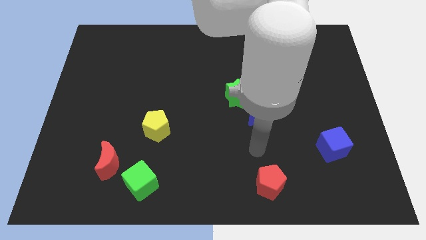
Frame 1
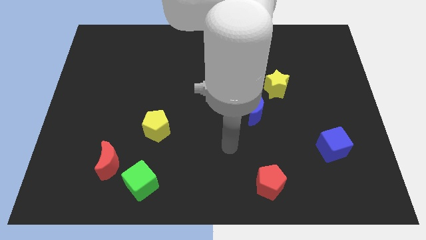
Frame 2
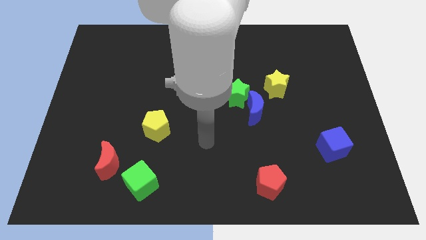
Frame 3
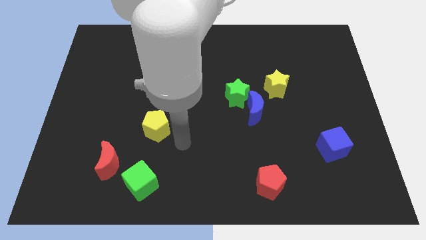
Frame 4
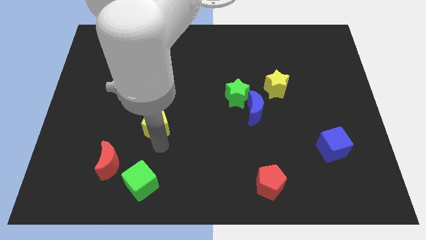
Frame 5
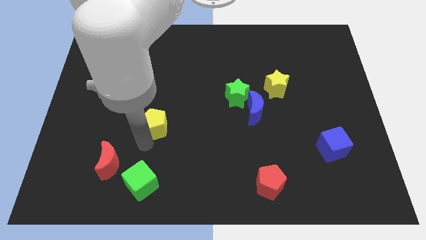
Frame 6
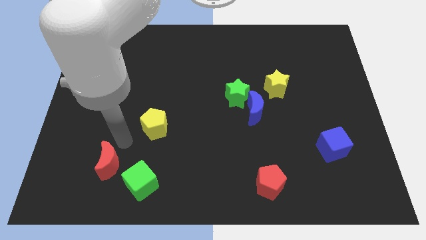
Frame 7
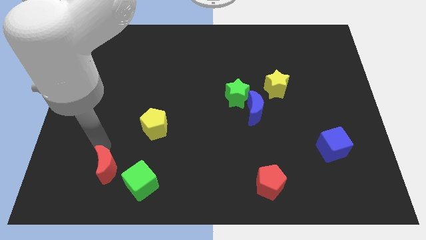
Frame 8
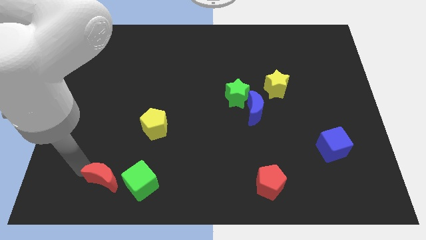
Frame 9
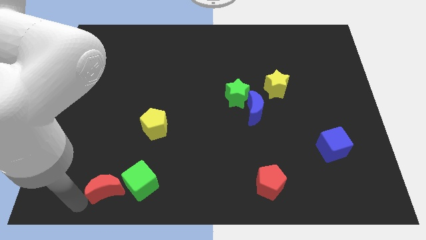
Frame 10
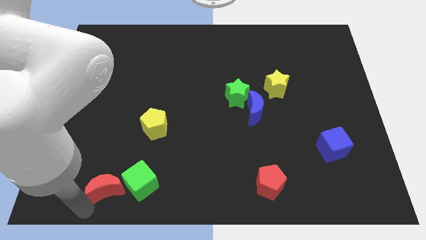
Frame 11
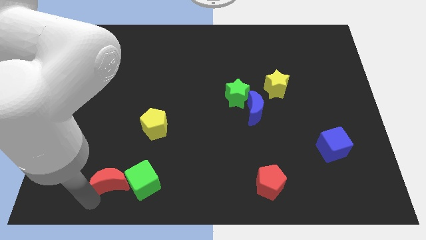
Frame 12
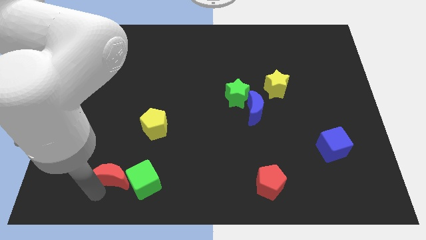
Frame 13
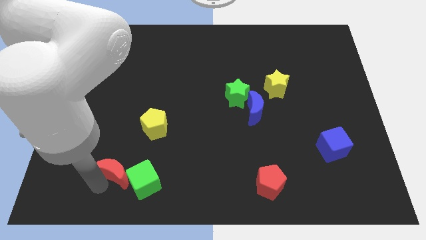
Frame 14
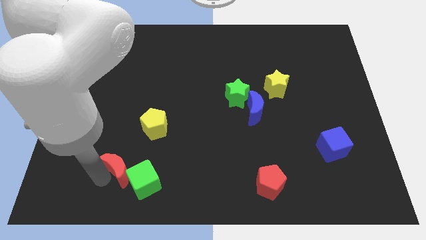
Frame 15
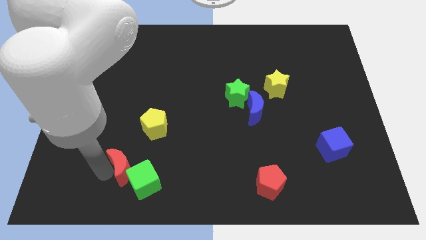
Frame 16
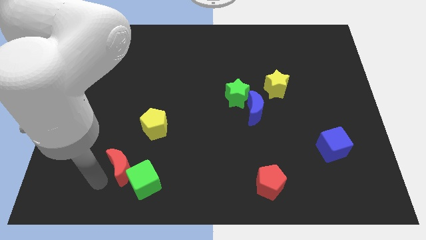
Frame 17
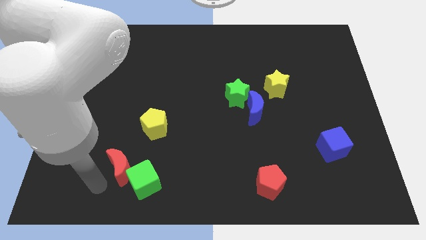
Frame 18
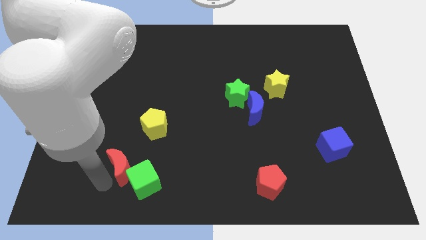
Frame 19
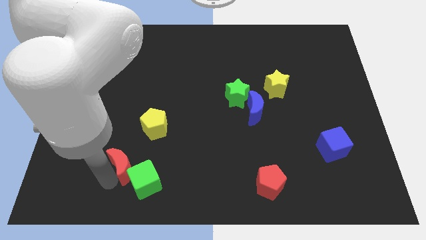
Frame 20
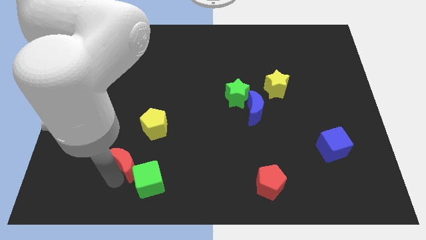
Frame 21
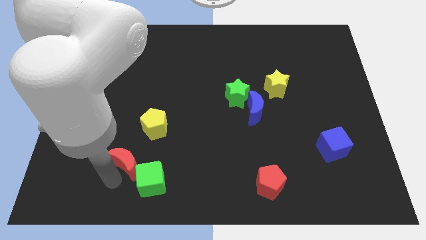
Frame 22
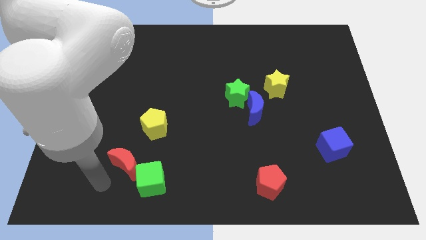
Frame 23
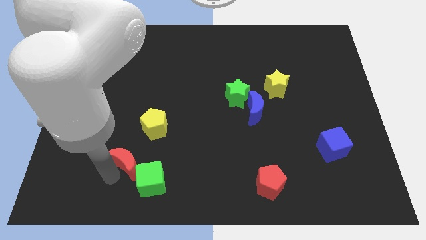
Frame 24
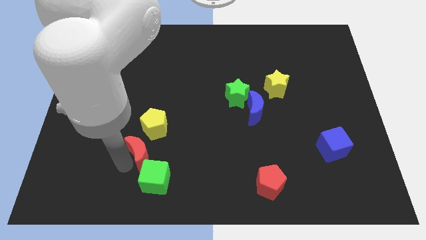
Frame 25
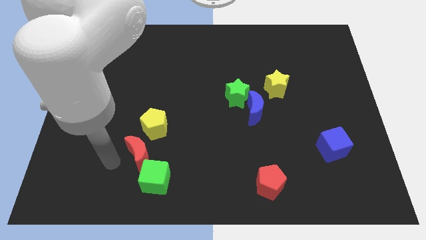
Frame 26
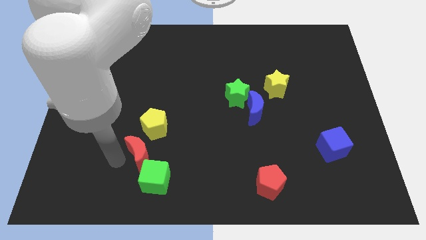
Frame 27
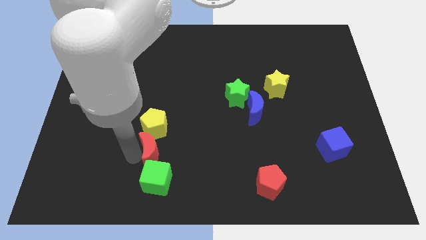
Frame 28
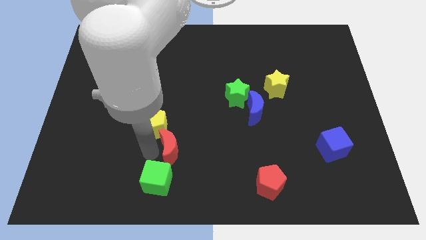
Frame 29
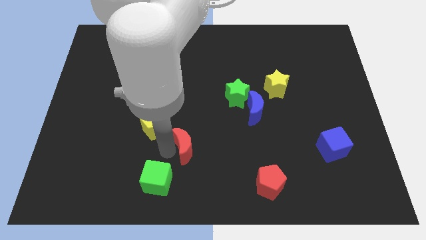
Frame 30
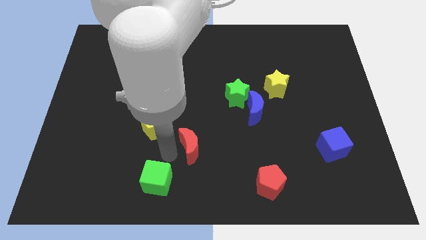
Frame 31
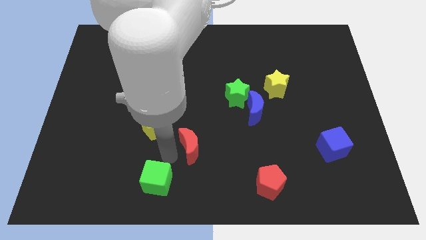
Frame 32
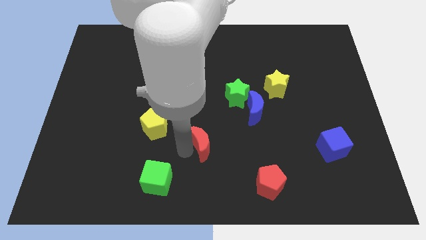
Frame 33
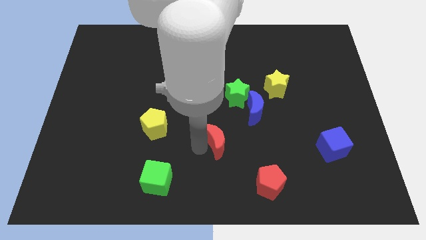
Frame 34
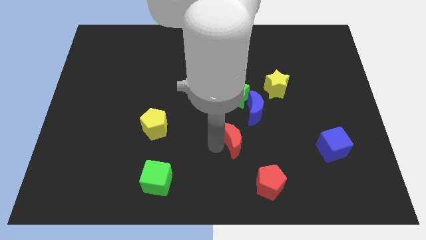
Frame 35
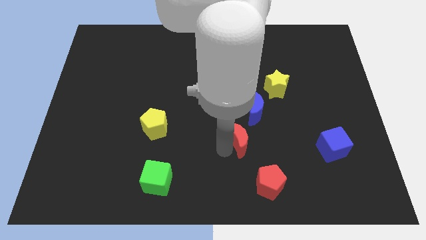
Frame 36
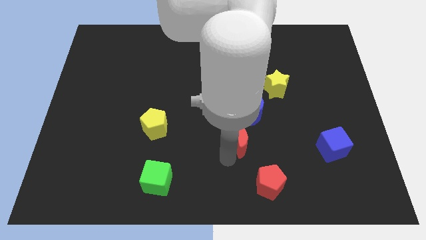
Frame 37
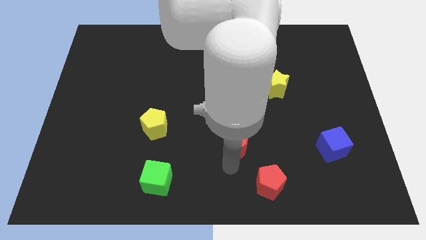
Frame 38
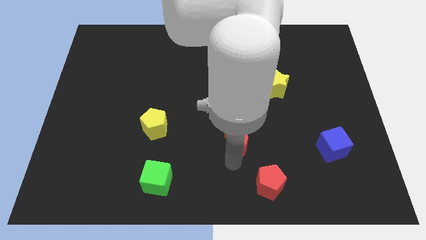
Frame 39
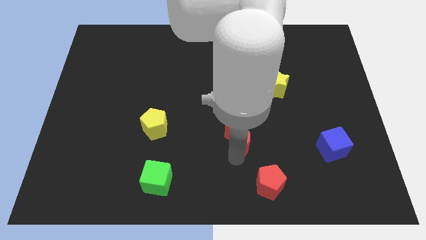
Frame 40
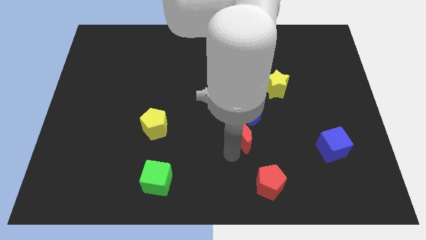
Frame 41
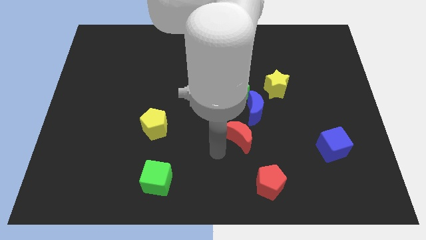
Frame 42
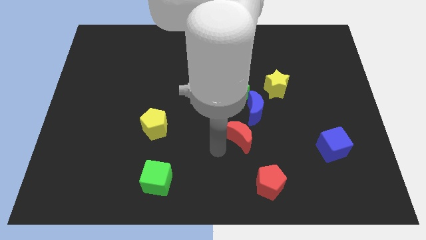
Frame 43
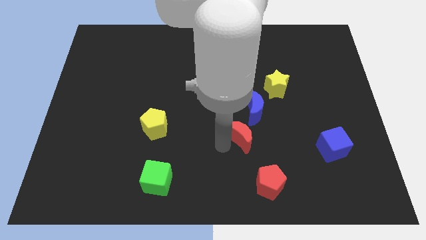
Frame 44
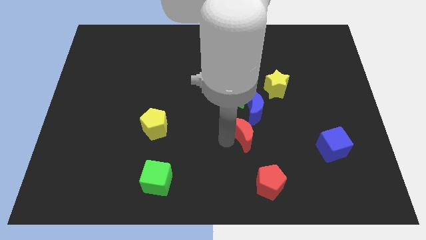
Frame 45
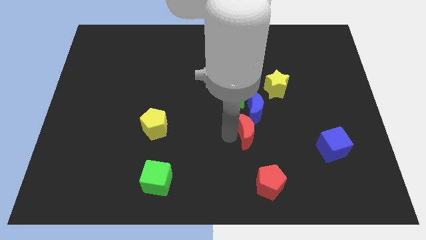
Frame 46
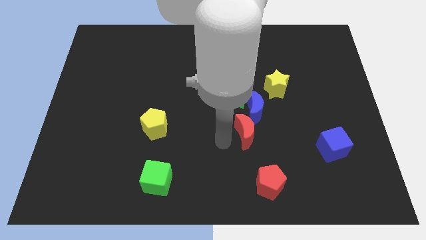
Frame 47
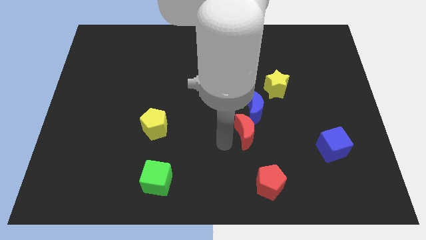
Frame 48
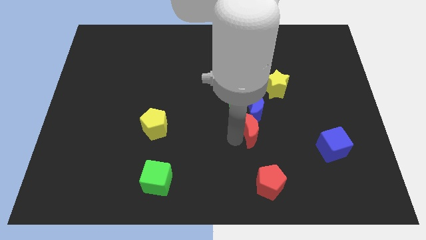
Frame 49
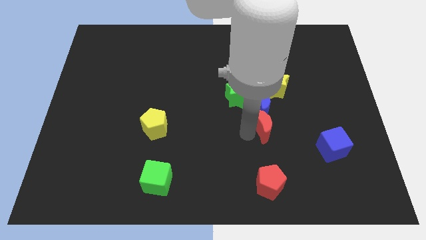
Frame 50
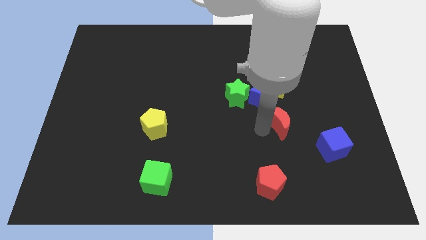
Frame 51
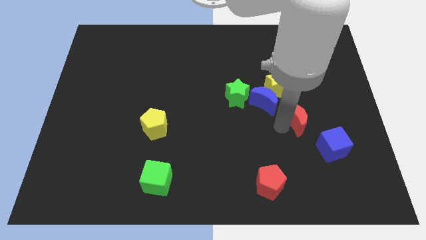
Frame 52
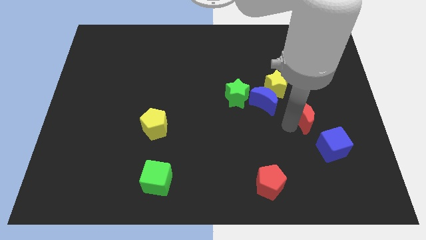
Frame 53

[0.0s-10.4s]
slide the red moon to the right of the blue moon

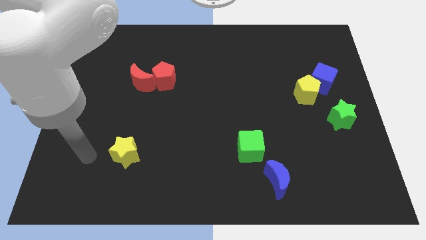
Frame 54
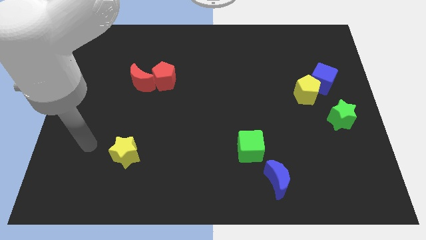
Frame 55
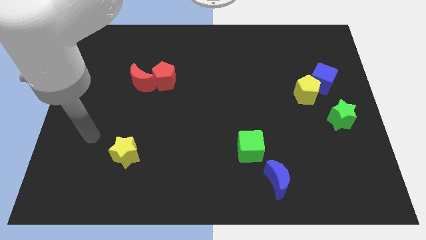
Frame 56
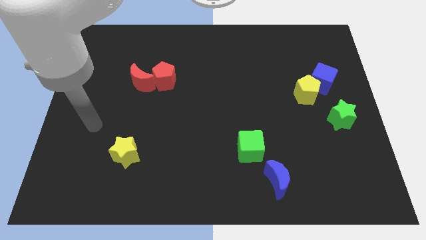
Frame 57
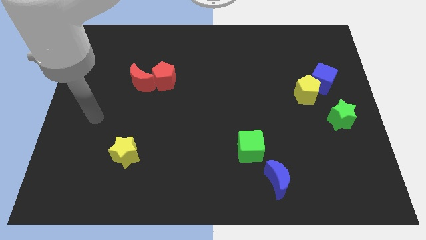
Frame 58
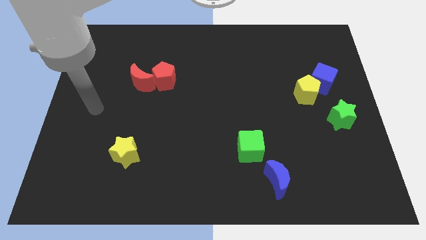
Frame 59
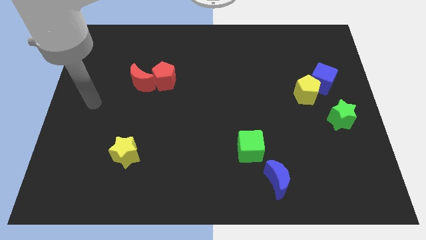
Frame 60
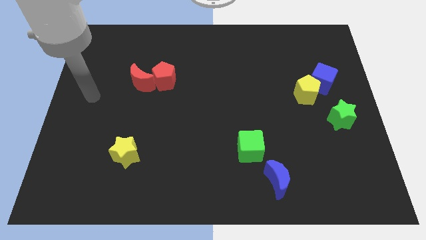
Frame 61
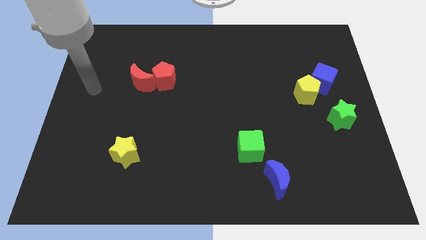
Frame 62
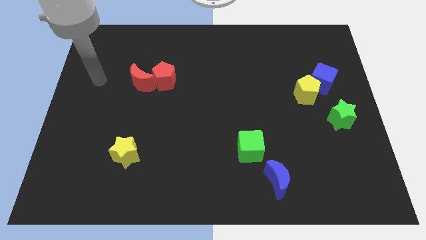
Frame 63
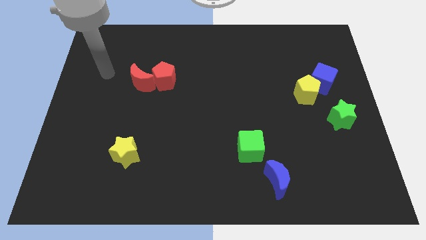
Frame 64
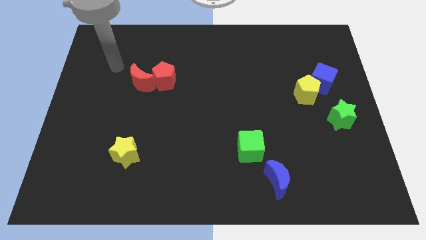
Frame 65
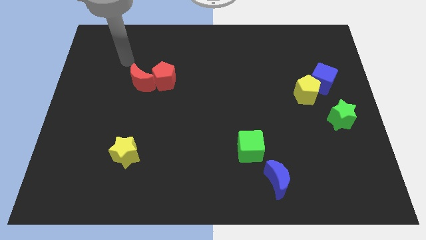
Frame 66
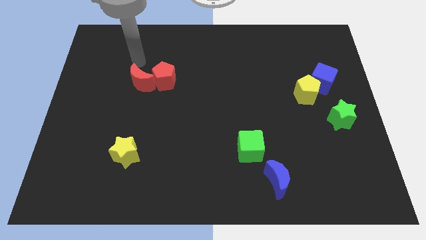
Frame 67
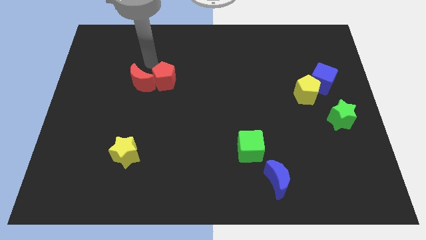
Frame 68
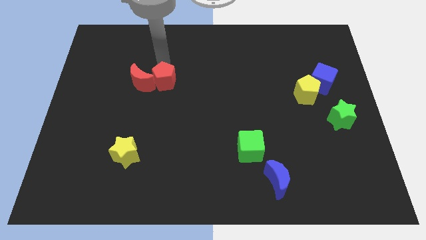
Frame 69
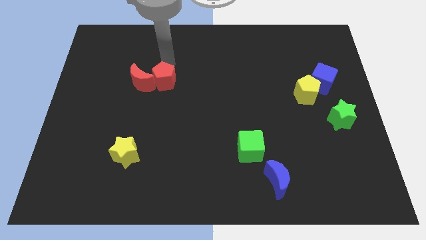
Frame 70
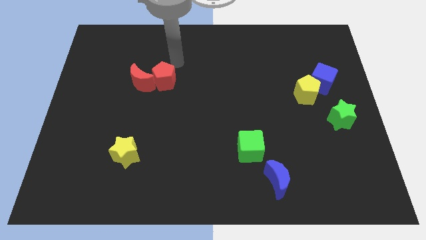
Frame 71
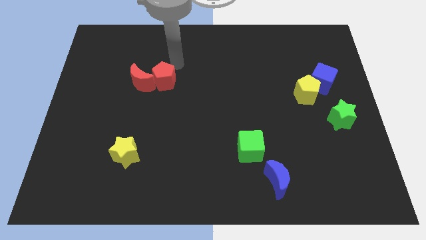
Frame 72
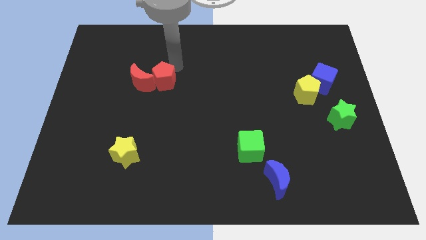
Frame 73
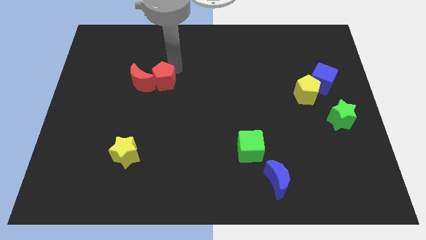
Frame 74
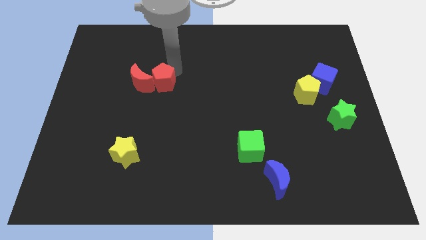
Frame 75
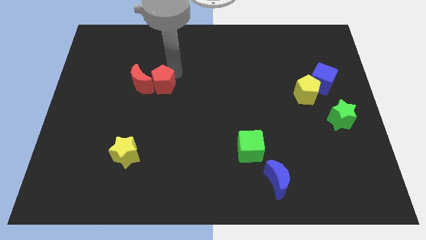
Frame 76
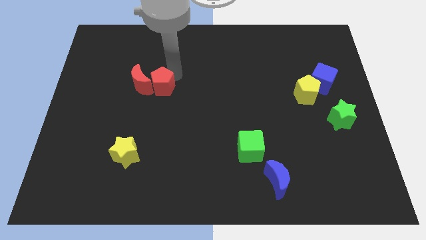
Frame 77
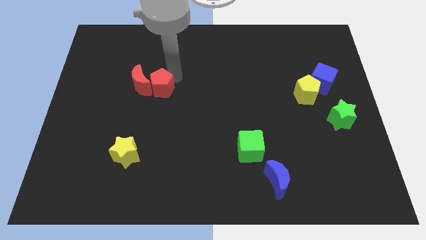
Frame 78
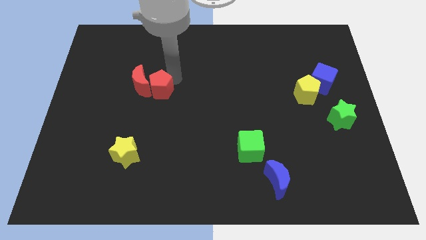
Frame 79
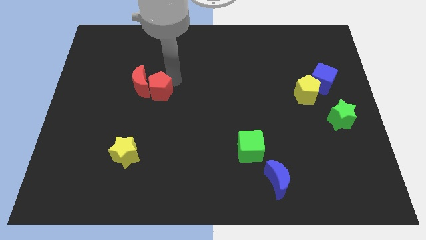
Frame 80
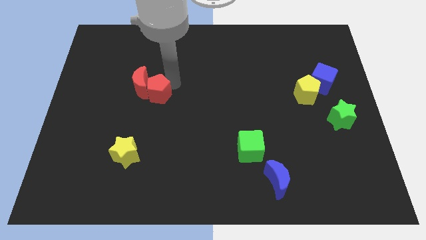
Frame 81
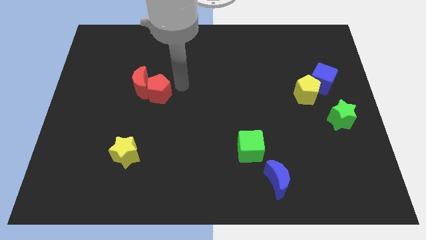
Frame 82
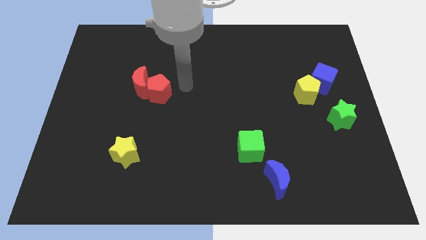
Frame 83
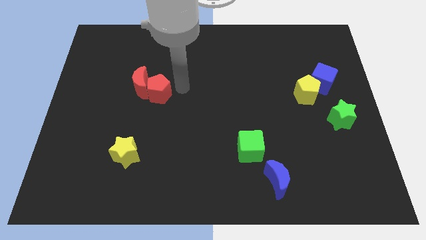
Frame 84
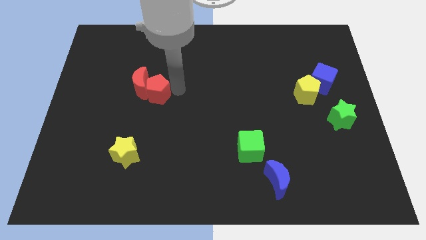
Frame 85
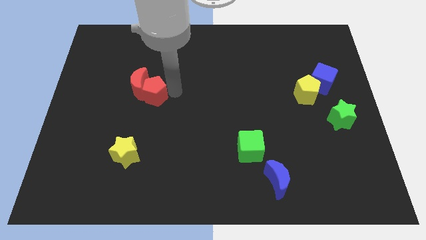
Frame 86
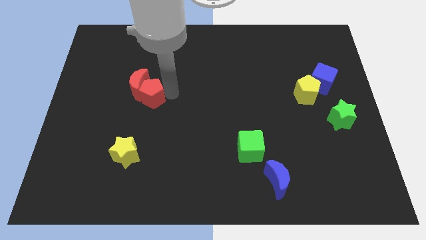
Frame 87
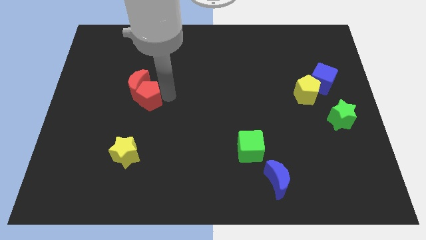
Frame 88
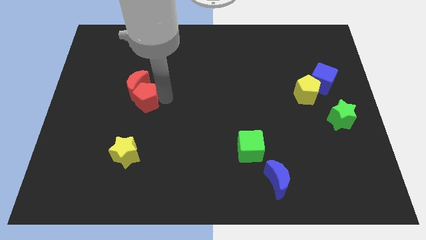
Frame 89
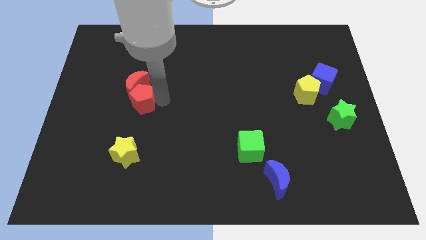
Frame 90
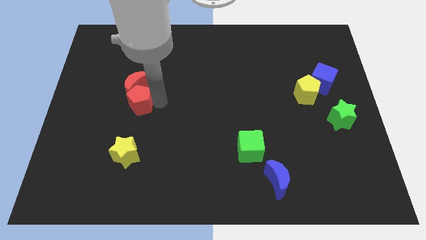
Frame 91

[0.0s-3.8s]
push the red pentagon to the bottom left side of the red moon
